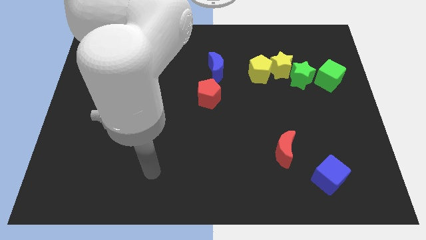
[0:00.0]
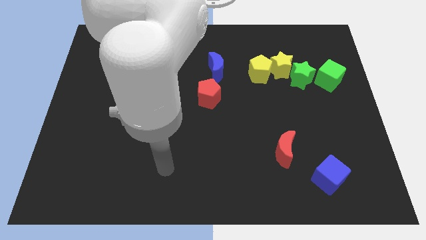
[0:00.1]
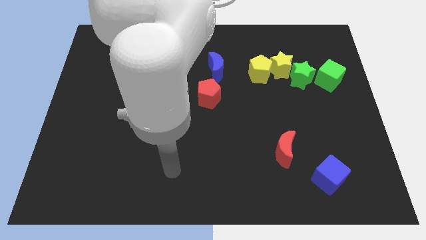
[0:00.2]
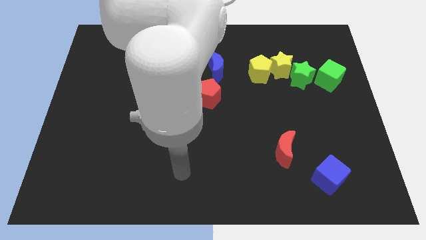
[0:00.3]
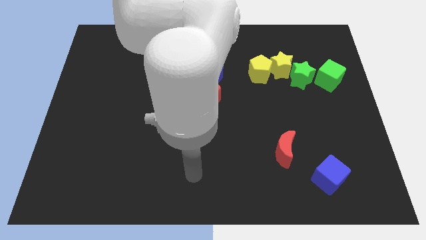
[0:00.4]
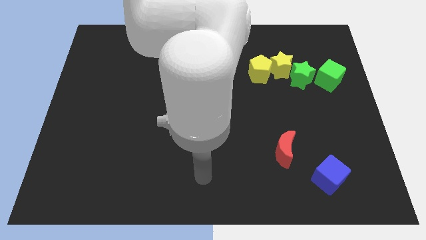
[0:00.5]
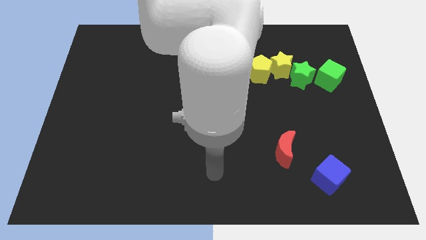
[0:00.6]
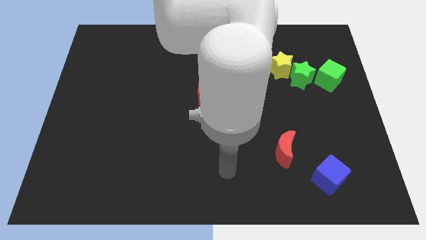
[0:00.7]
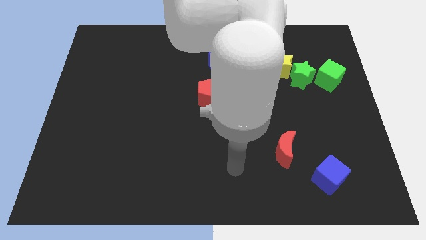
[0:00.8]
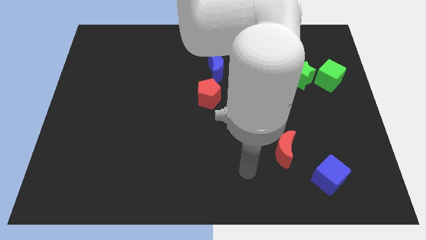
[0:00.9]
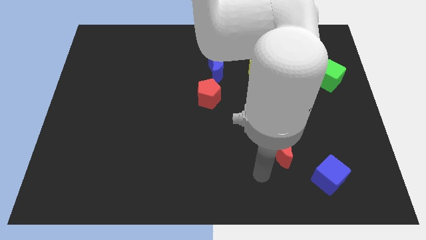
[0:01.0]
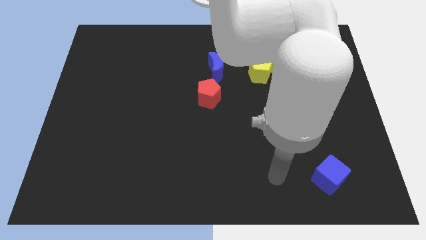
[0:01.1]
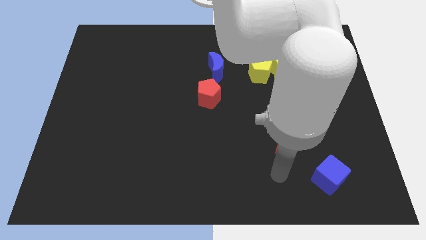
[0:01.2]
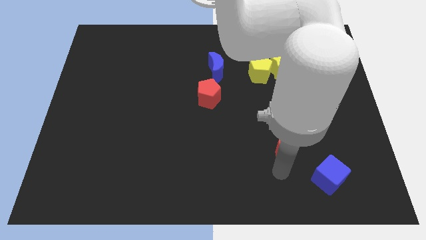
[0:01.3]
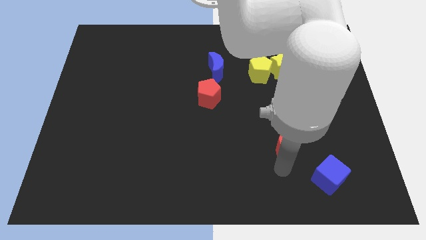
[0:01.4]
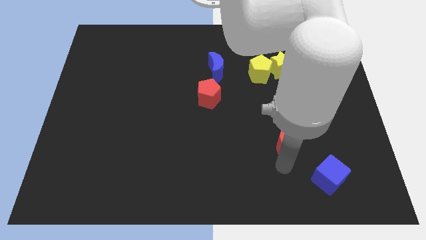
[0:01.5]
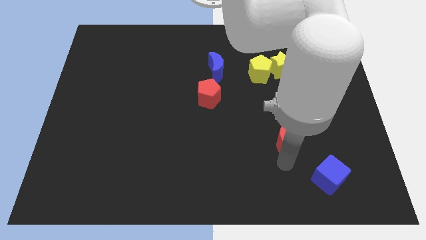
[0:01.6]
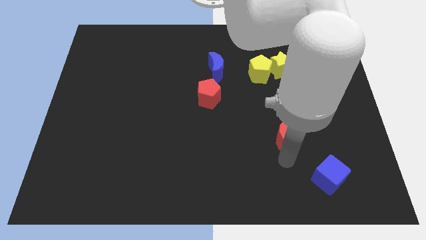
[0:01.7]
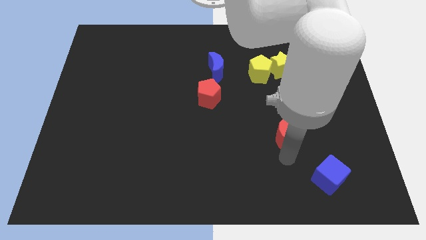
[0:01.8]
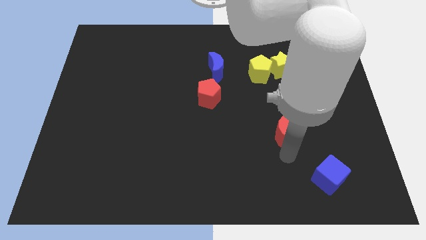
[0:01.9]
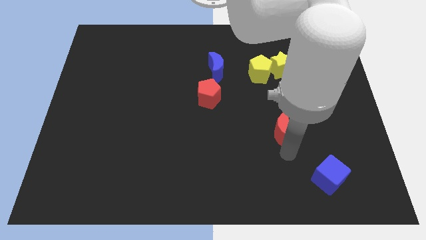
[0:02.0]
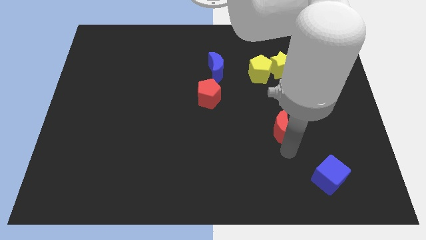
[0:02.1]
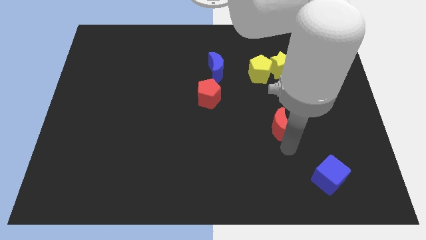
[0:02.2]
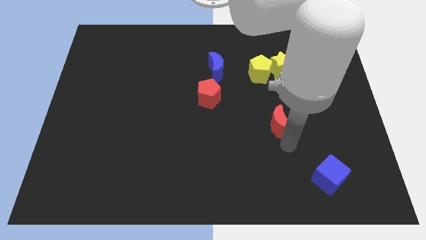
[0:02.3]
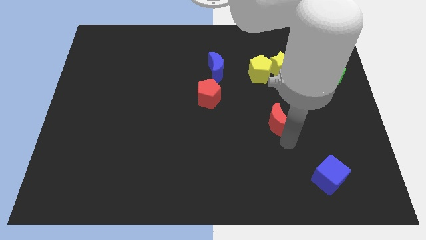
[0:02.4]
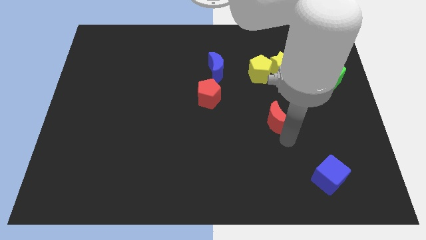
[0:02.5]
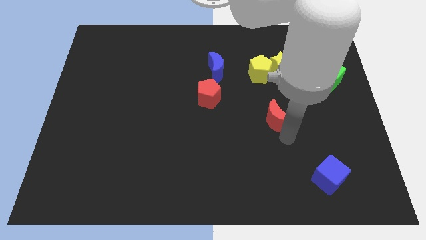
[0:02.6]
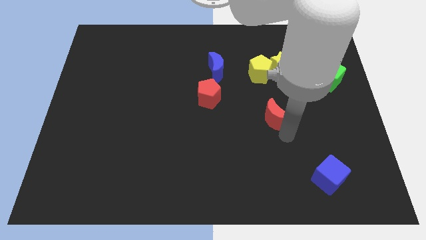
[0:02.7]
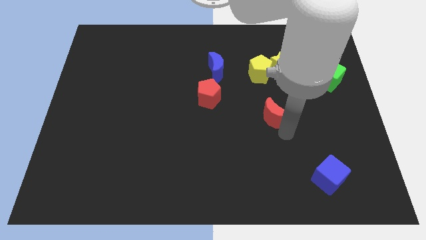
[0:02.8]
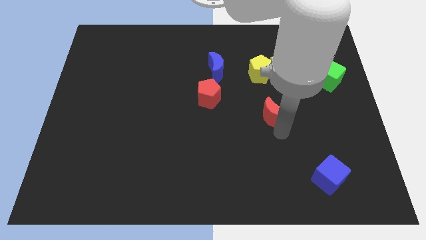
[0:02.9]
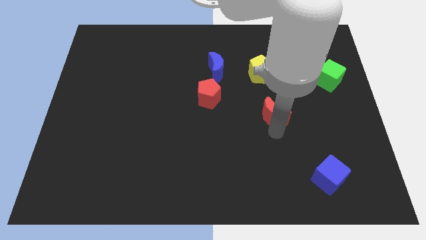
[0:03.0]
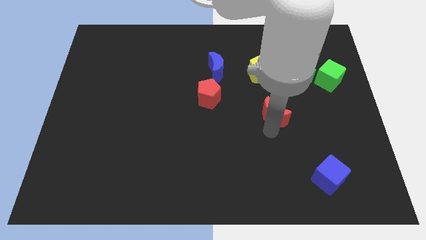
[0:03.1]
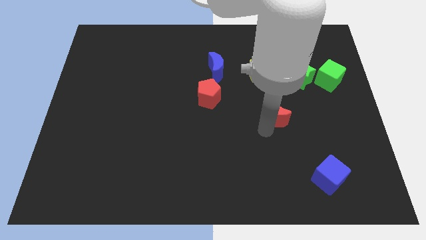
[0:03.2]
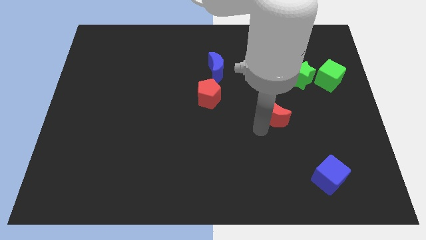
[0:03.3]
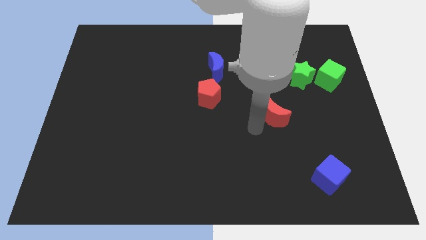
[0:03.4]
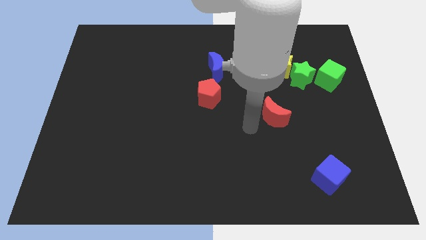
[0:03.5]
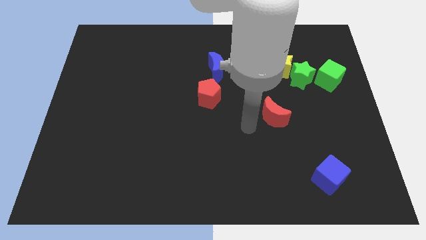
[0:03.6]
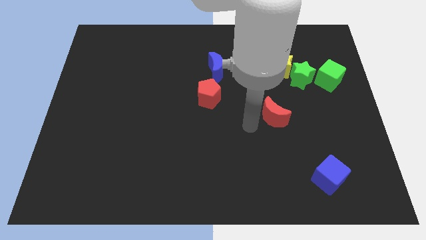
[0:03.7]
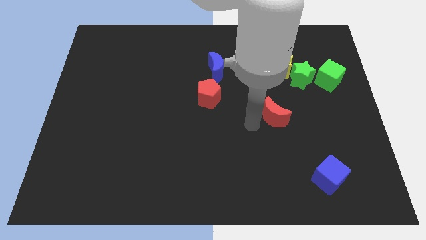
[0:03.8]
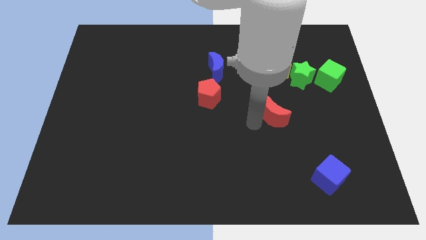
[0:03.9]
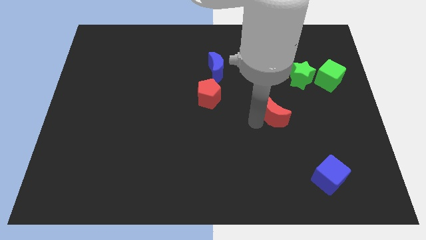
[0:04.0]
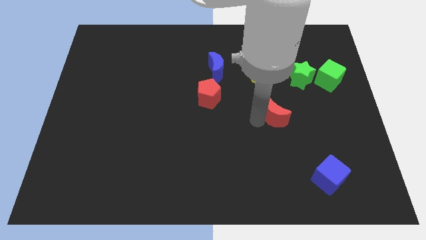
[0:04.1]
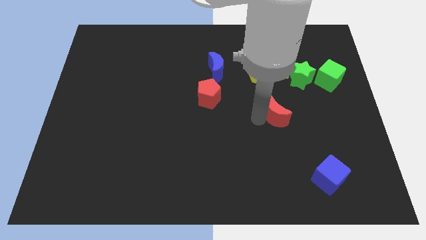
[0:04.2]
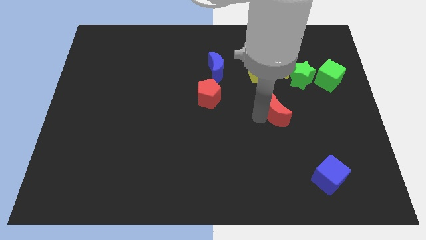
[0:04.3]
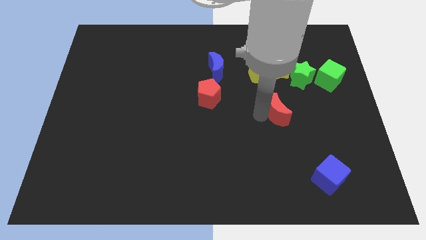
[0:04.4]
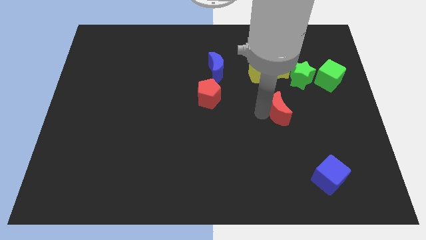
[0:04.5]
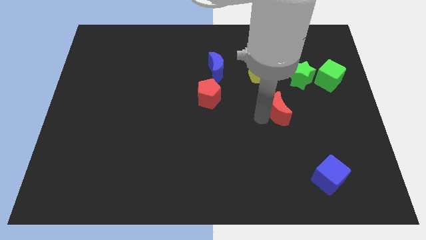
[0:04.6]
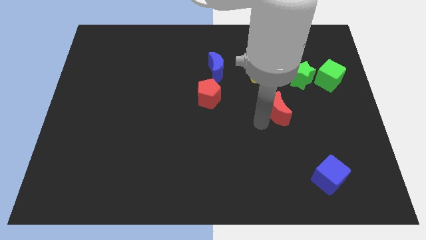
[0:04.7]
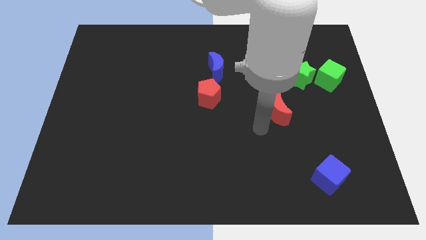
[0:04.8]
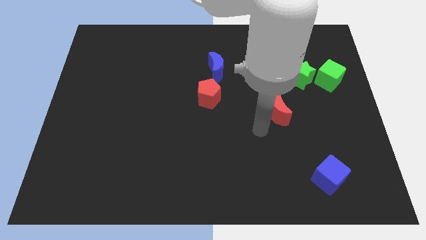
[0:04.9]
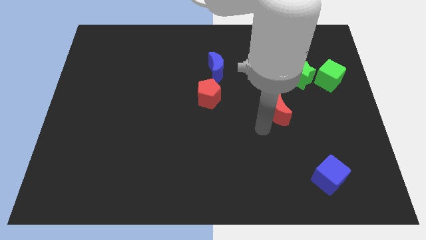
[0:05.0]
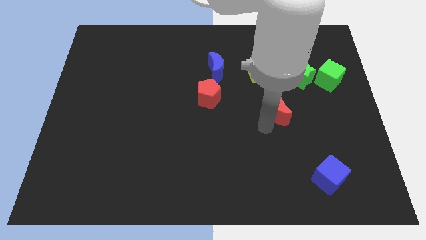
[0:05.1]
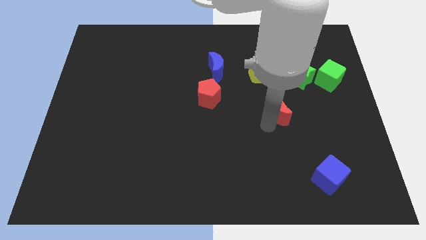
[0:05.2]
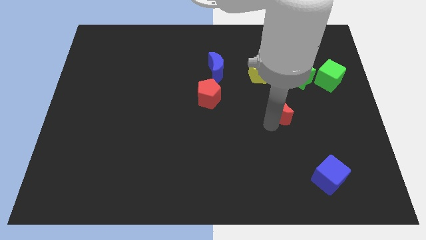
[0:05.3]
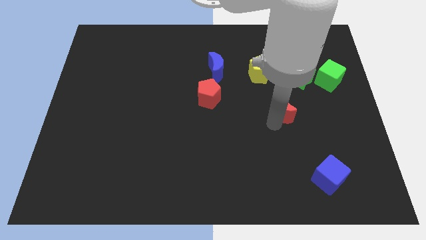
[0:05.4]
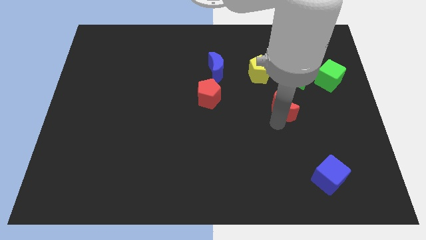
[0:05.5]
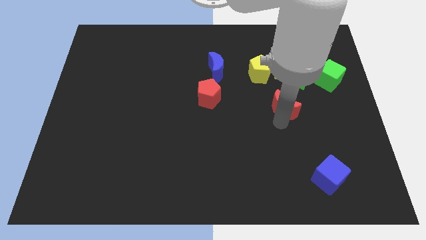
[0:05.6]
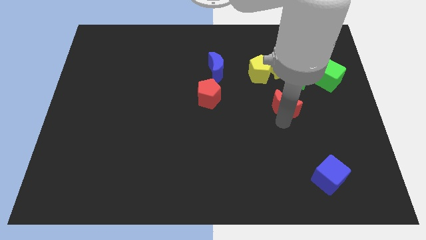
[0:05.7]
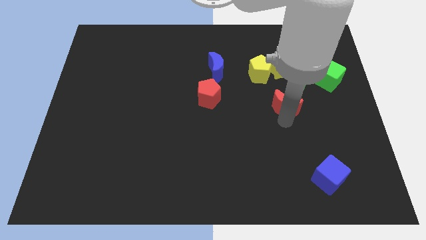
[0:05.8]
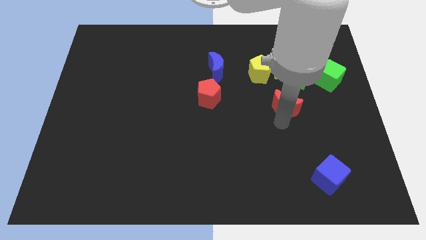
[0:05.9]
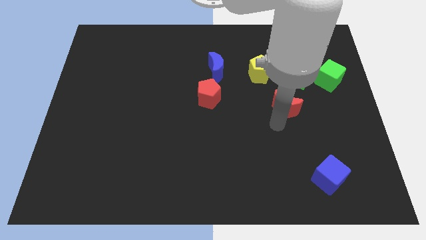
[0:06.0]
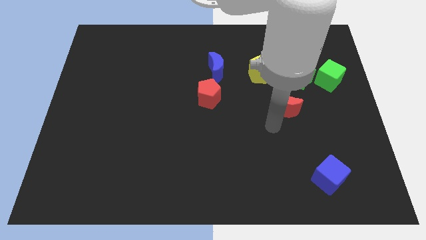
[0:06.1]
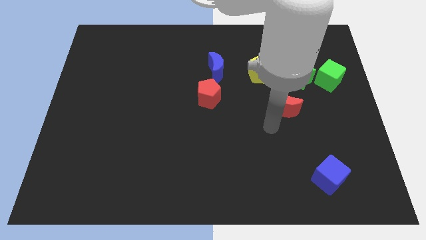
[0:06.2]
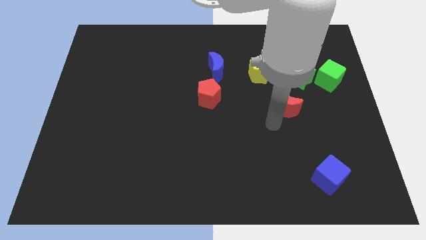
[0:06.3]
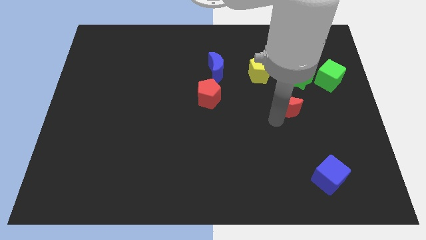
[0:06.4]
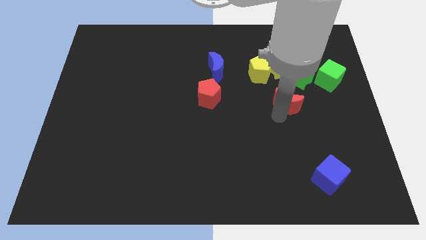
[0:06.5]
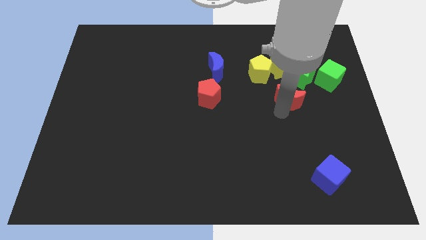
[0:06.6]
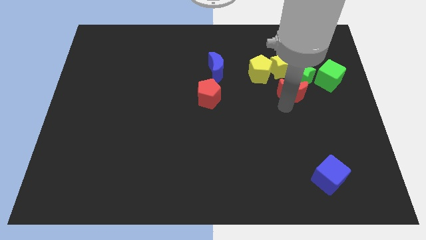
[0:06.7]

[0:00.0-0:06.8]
put the red moon close to the green star

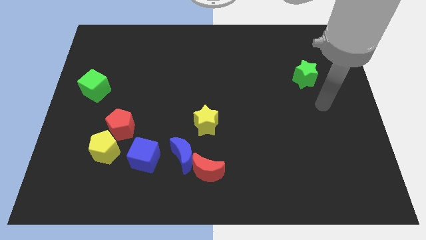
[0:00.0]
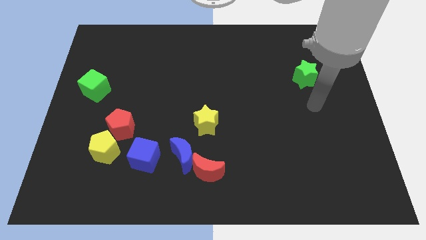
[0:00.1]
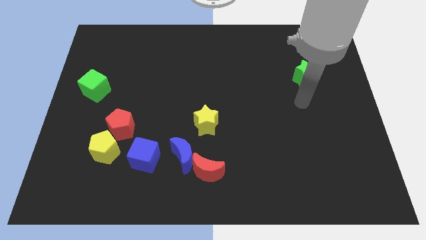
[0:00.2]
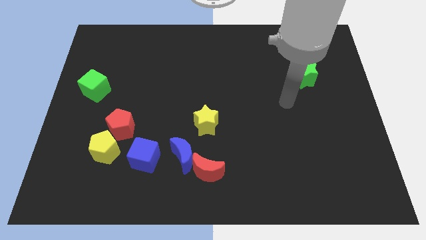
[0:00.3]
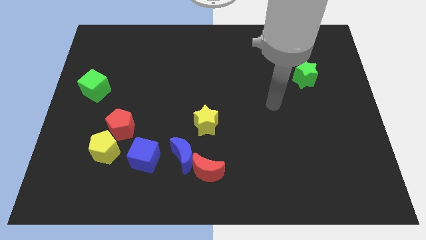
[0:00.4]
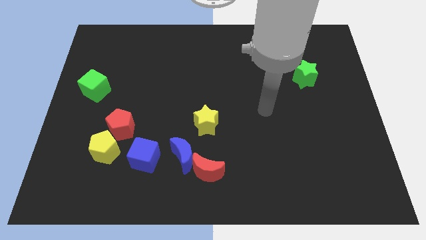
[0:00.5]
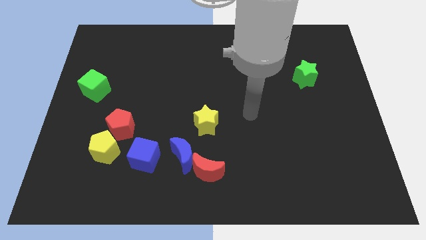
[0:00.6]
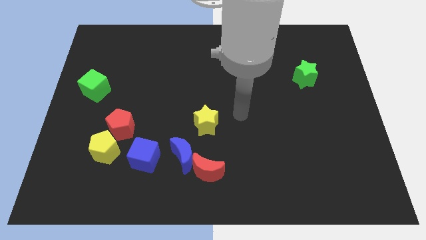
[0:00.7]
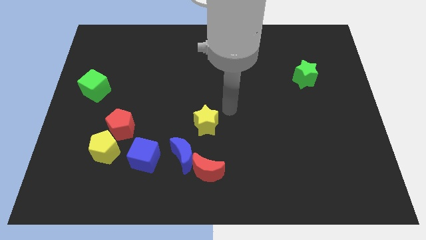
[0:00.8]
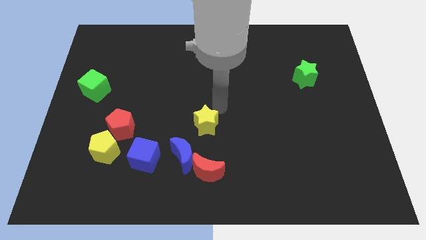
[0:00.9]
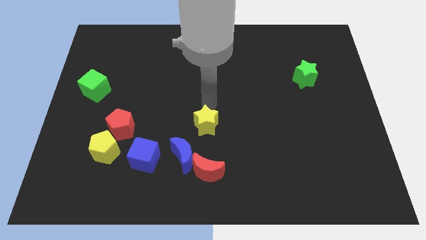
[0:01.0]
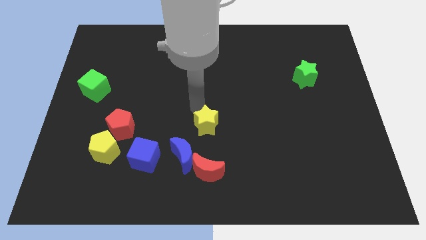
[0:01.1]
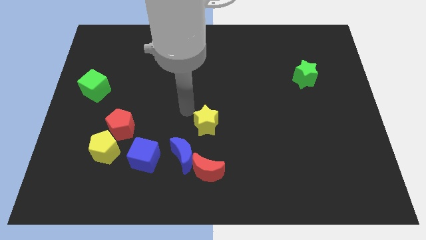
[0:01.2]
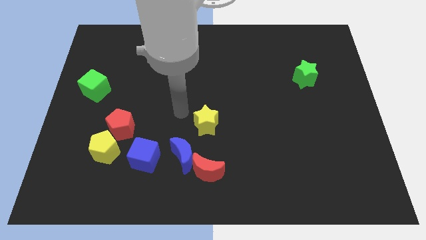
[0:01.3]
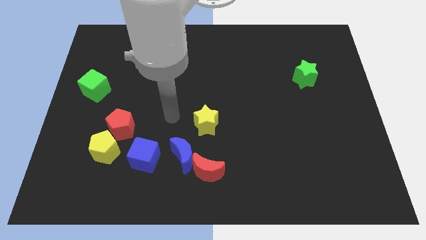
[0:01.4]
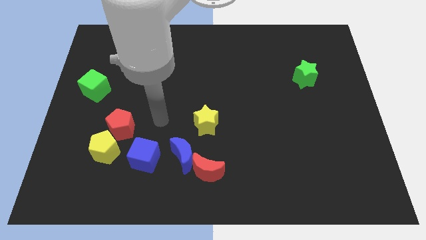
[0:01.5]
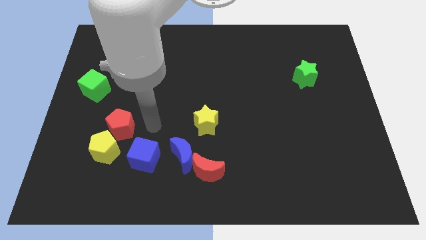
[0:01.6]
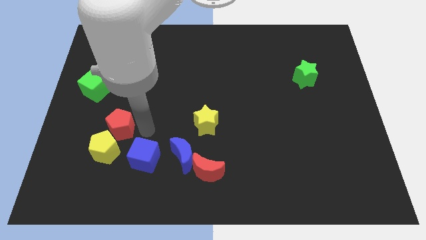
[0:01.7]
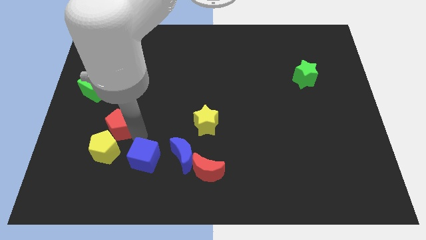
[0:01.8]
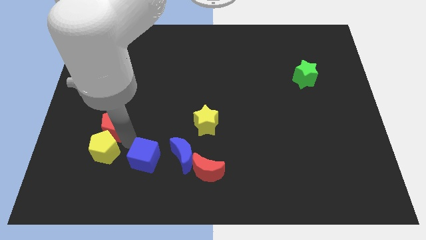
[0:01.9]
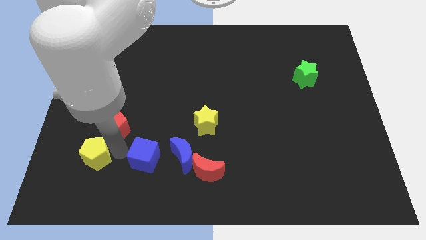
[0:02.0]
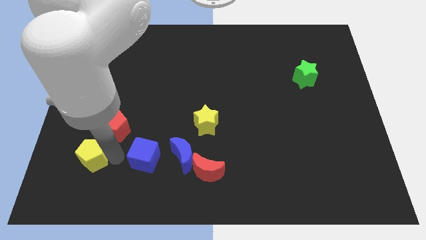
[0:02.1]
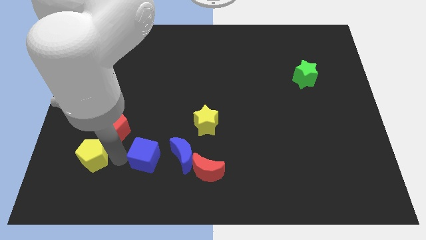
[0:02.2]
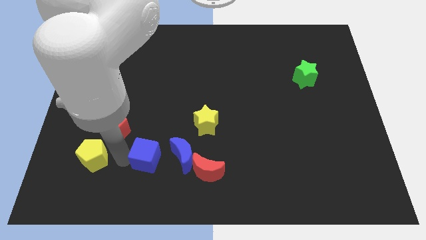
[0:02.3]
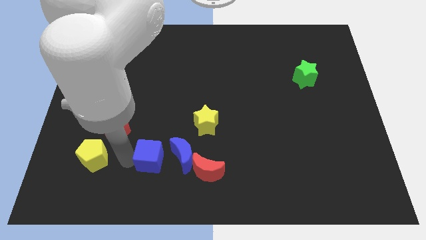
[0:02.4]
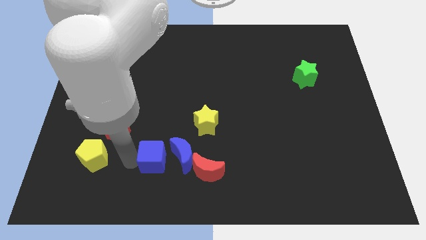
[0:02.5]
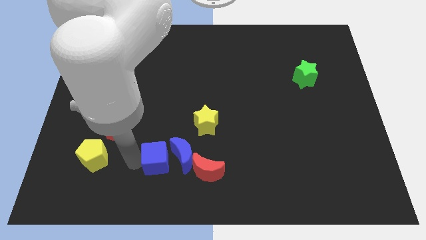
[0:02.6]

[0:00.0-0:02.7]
move the blue cube towards the blue moon
